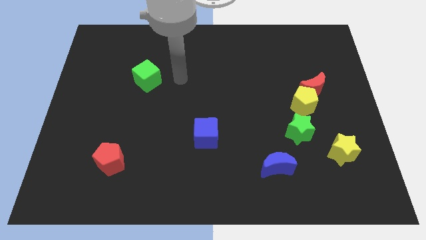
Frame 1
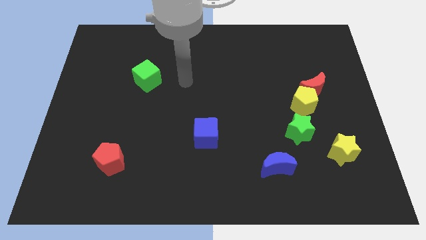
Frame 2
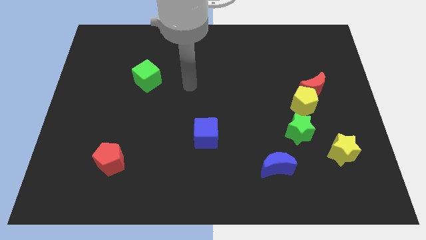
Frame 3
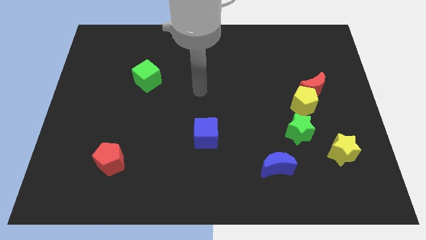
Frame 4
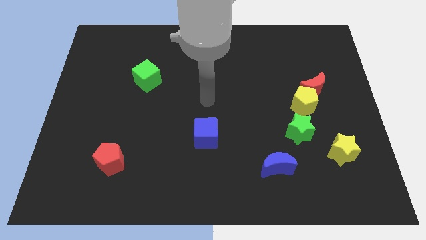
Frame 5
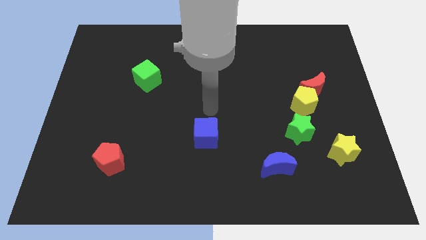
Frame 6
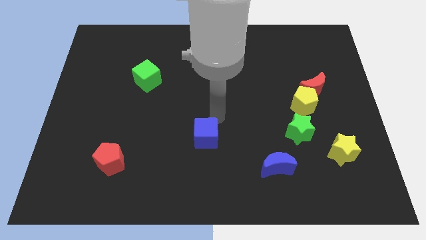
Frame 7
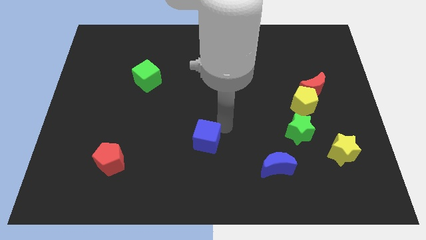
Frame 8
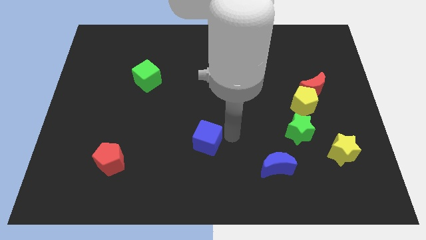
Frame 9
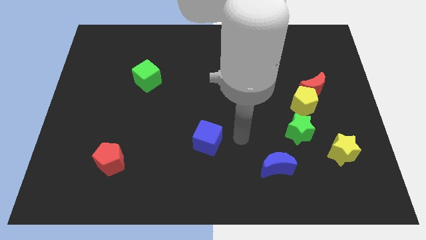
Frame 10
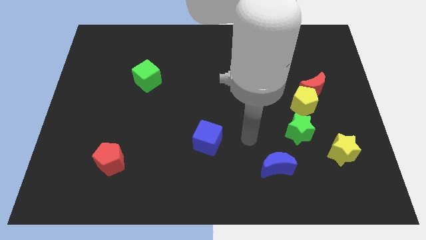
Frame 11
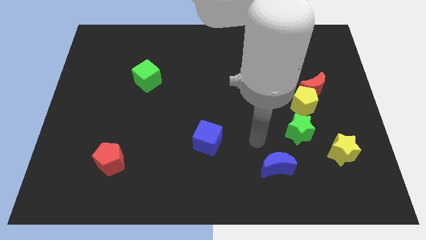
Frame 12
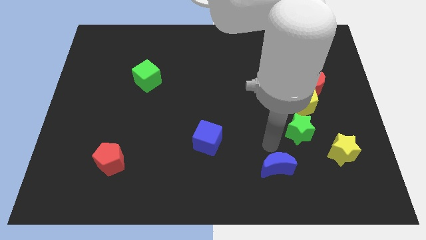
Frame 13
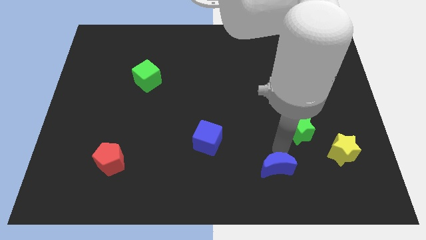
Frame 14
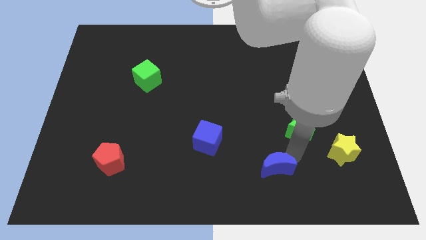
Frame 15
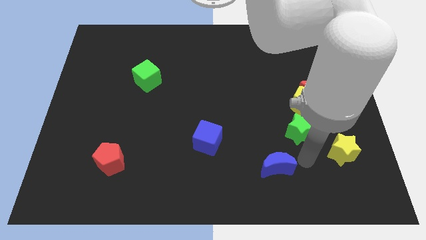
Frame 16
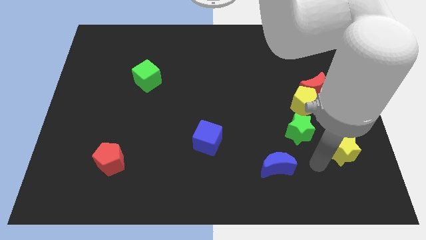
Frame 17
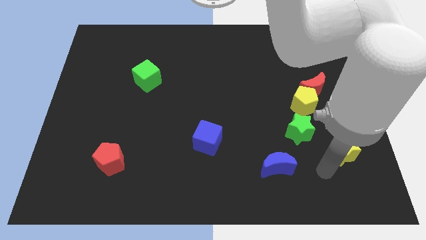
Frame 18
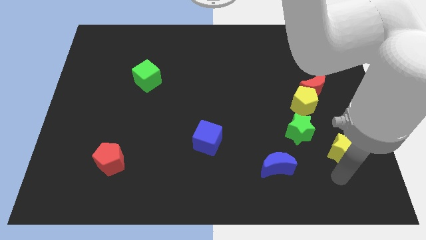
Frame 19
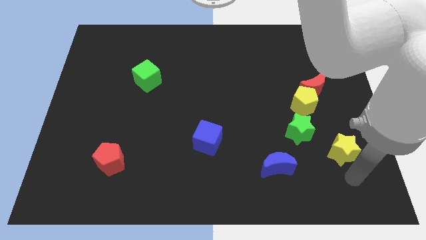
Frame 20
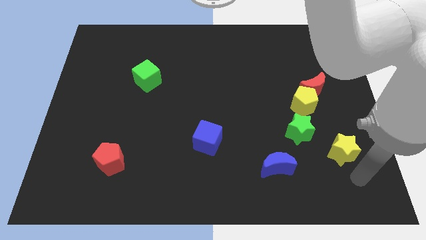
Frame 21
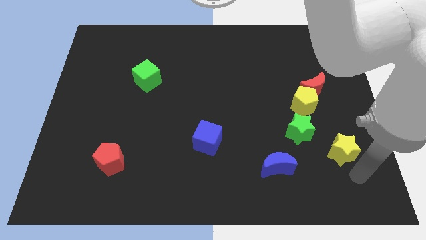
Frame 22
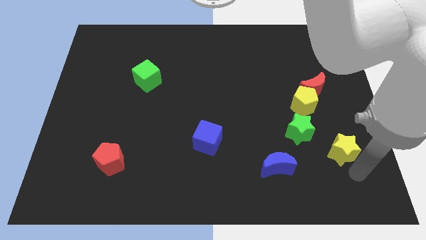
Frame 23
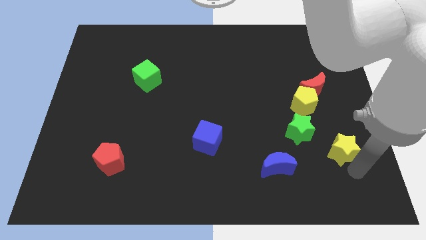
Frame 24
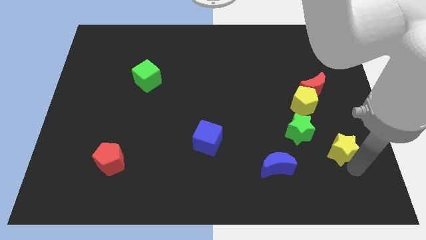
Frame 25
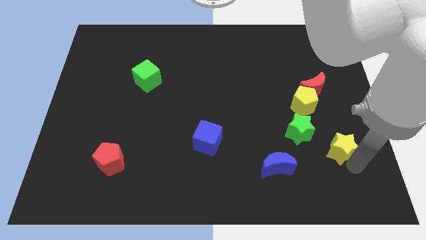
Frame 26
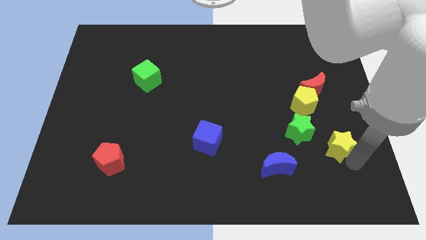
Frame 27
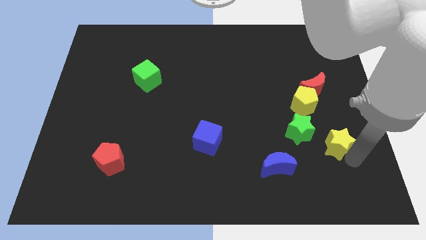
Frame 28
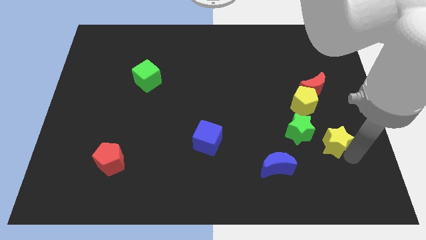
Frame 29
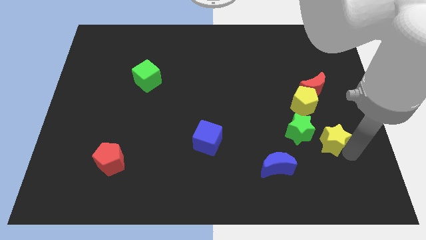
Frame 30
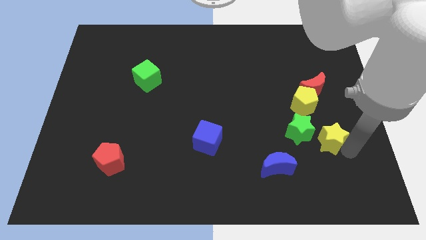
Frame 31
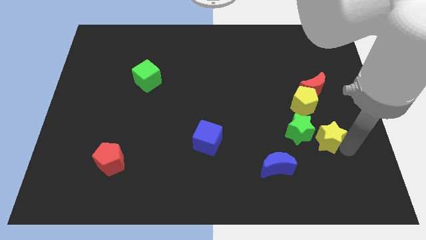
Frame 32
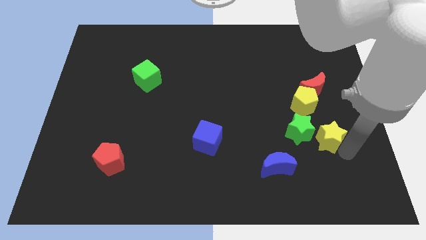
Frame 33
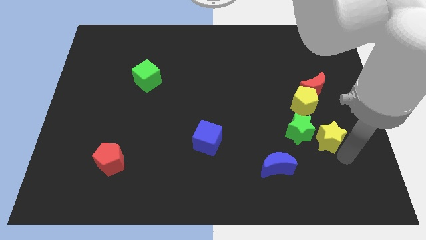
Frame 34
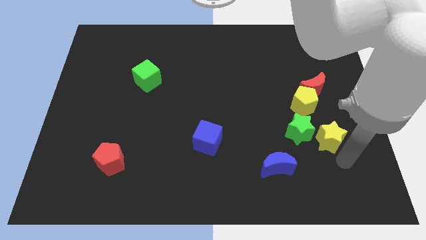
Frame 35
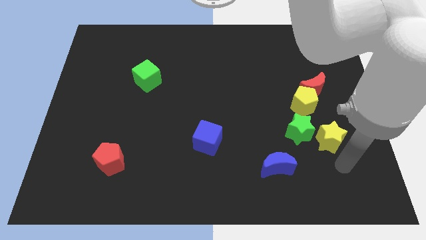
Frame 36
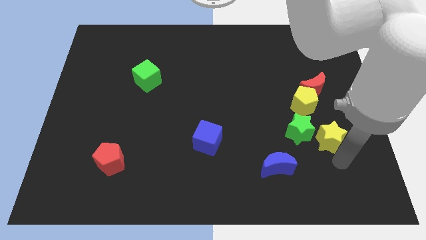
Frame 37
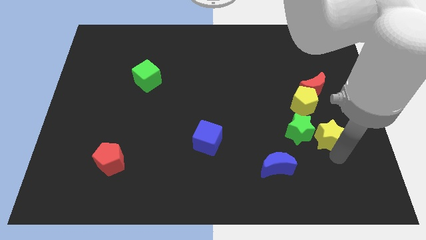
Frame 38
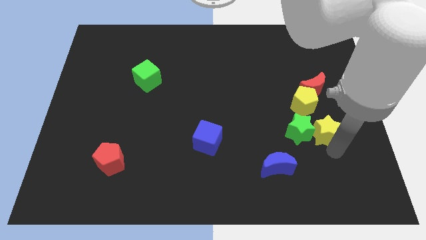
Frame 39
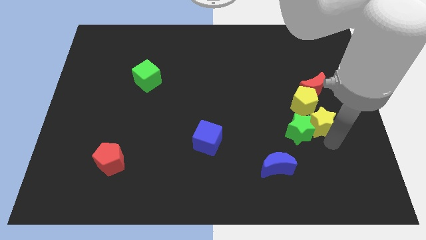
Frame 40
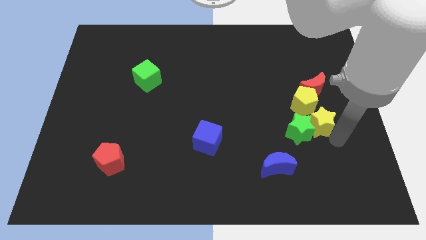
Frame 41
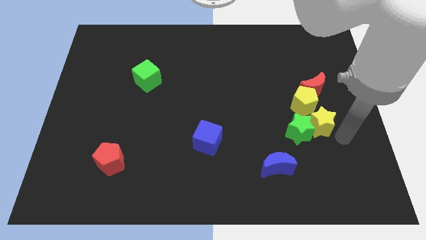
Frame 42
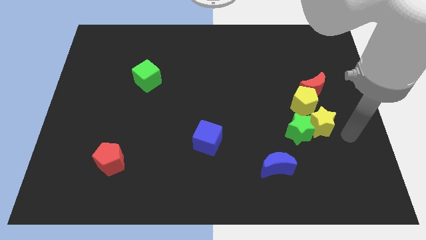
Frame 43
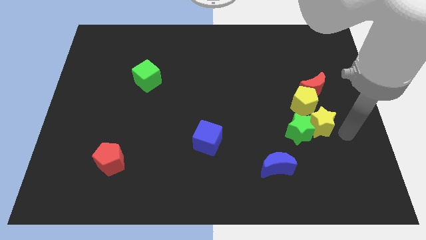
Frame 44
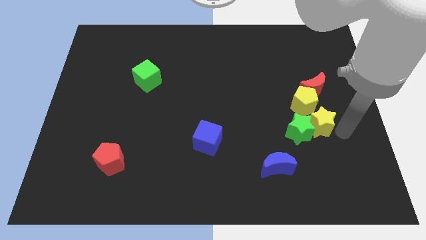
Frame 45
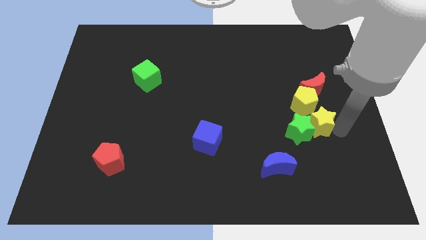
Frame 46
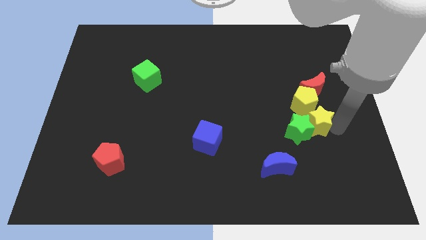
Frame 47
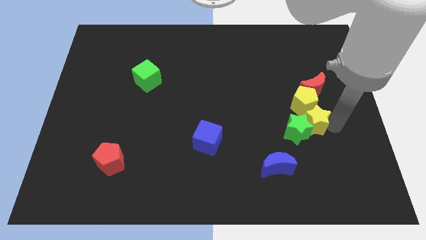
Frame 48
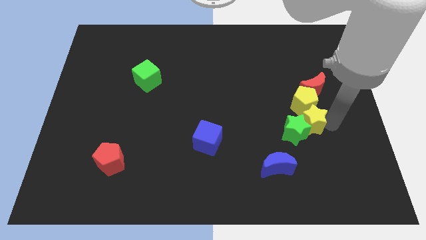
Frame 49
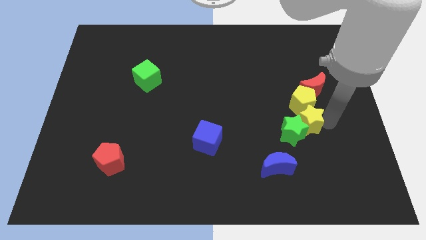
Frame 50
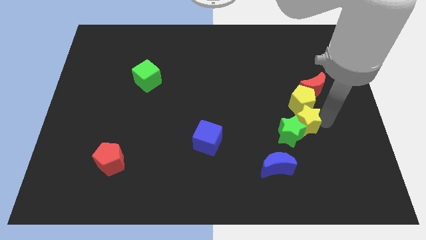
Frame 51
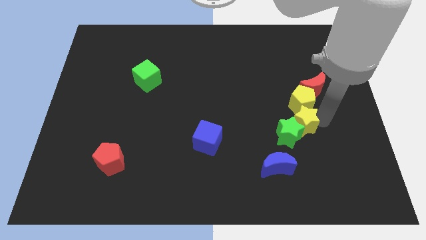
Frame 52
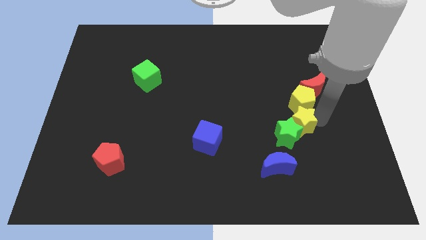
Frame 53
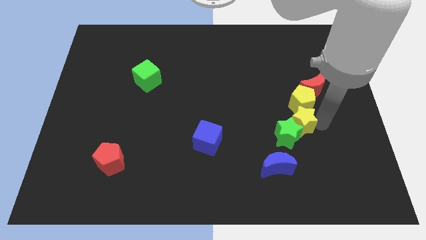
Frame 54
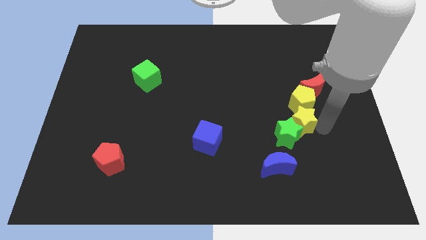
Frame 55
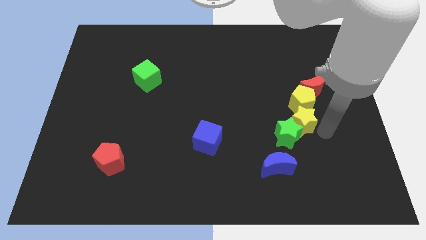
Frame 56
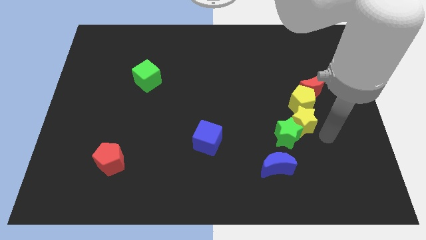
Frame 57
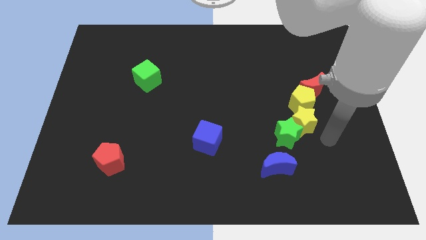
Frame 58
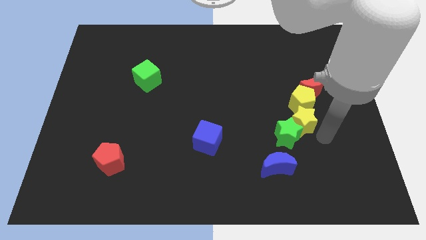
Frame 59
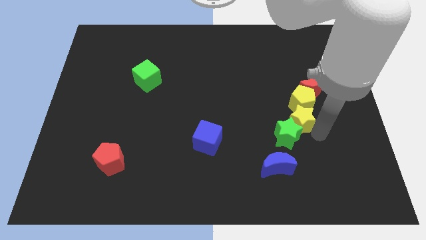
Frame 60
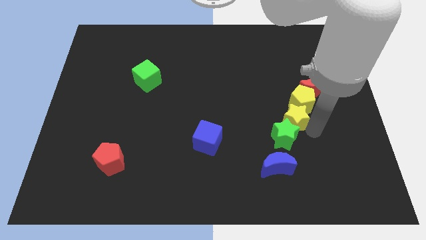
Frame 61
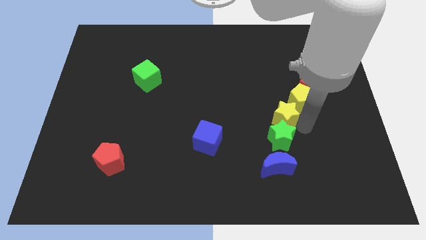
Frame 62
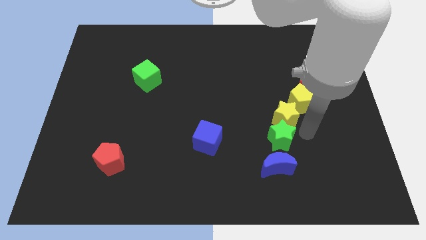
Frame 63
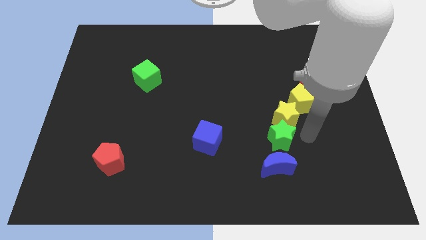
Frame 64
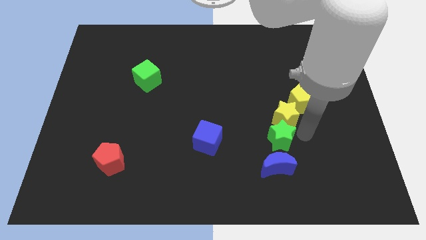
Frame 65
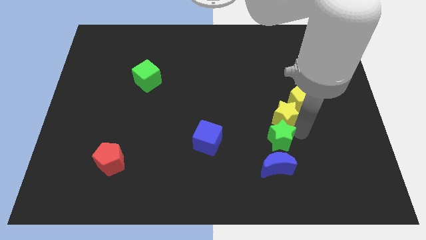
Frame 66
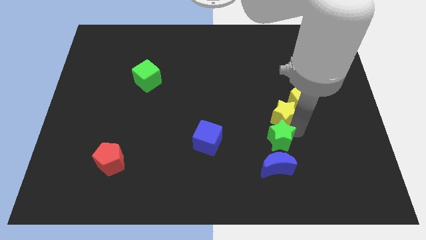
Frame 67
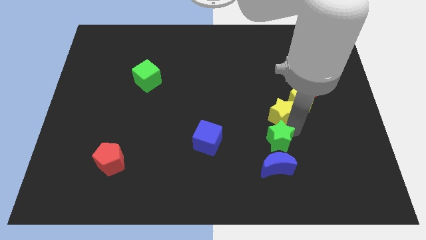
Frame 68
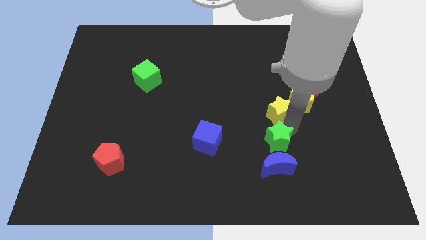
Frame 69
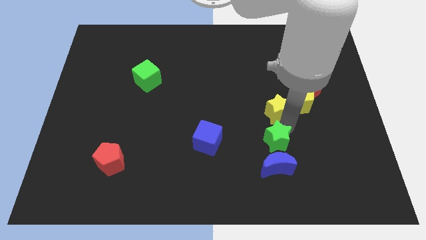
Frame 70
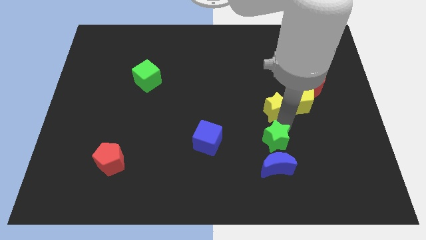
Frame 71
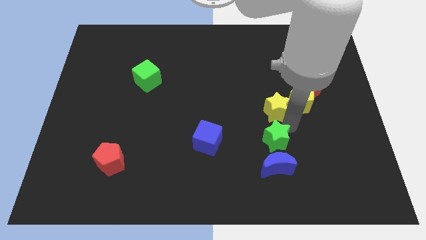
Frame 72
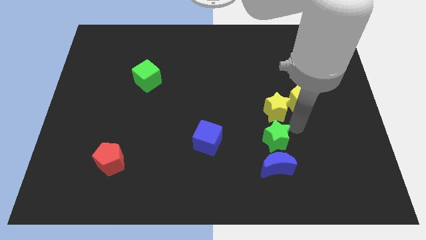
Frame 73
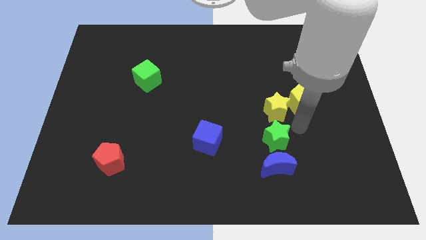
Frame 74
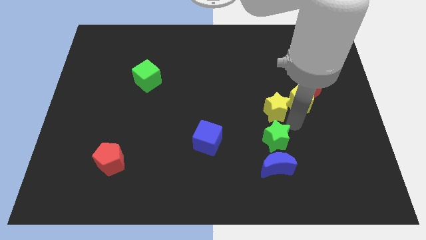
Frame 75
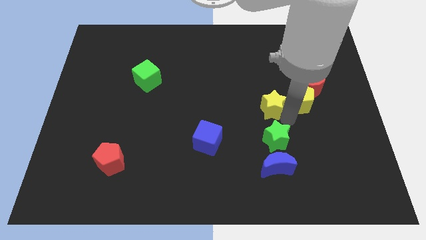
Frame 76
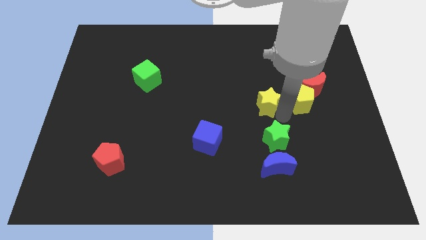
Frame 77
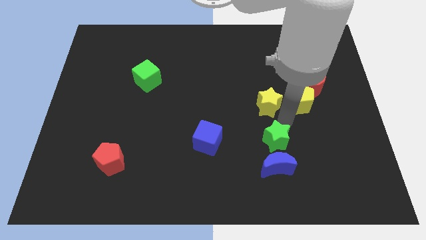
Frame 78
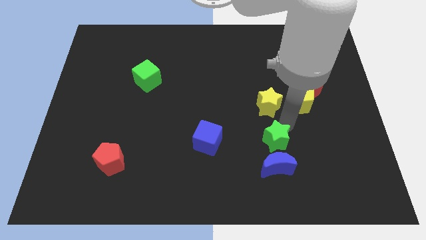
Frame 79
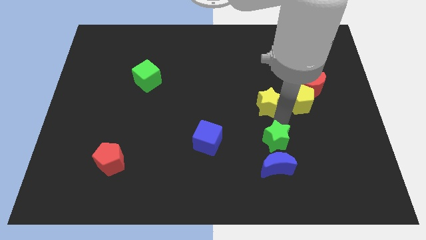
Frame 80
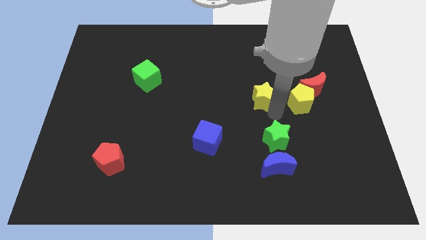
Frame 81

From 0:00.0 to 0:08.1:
move the yellow star upwards and then to the left
